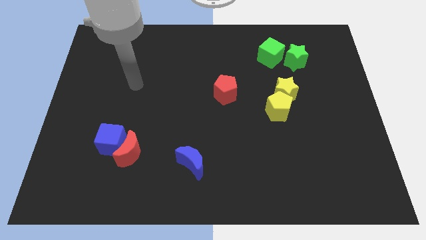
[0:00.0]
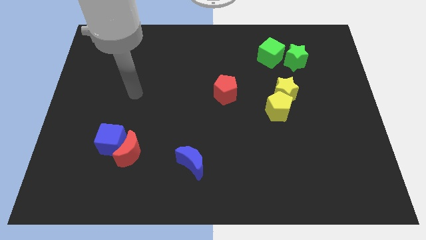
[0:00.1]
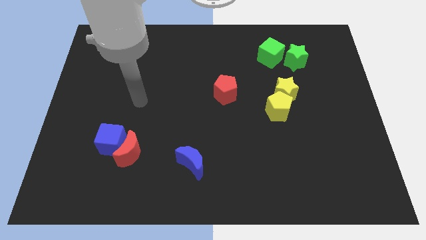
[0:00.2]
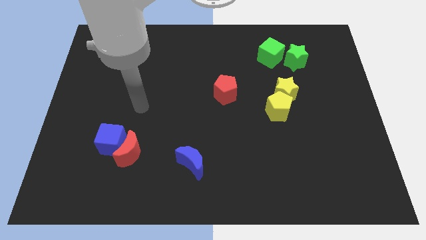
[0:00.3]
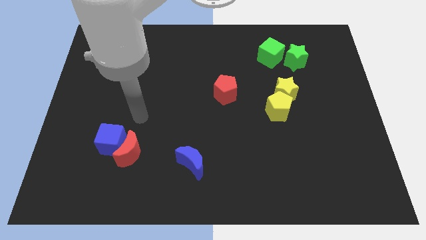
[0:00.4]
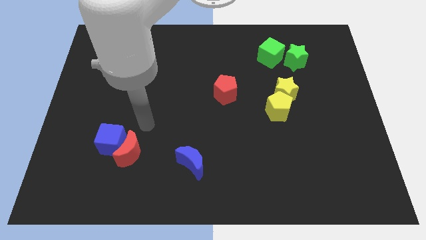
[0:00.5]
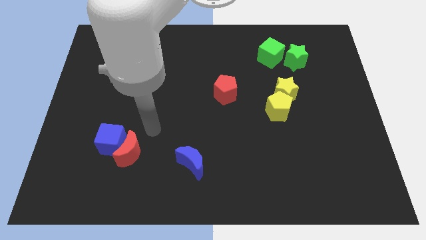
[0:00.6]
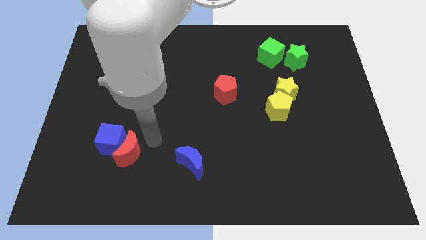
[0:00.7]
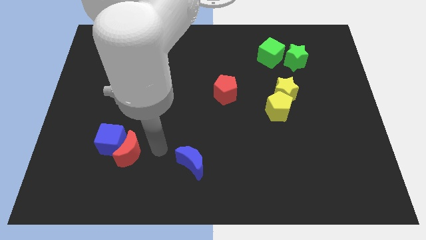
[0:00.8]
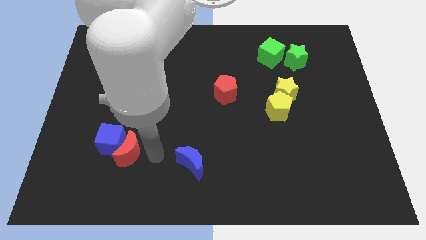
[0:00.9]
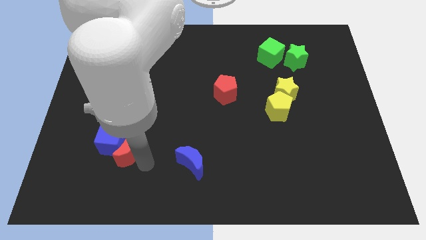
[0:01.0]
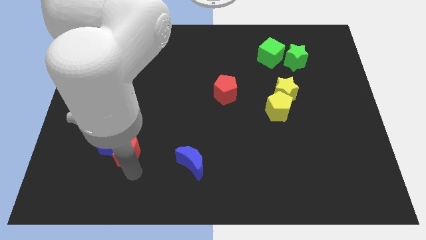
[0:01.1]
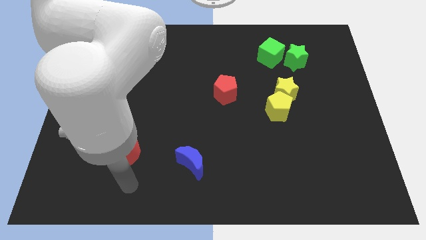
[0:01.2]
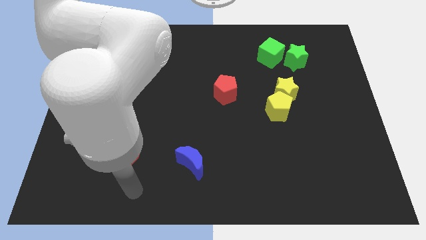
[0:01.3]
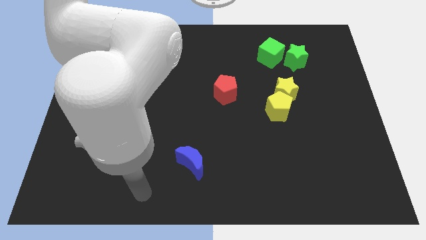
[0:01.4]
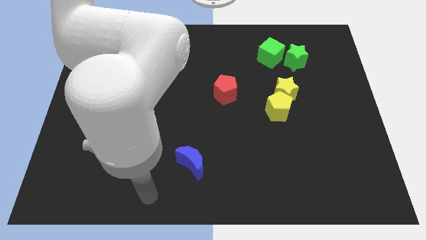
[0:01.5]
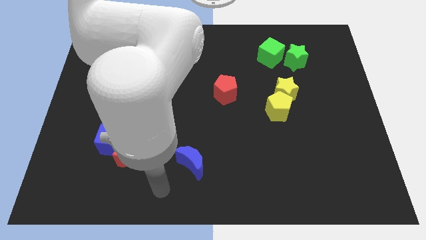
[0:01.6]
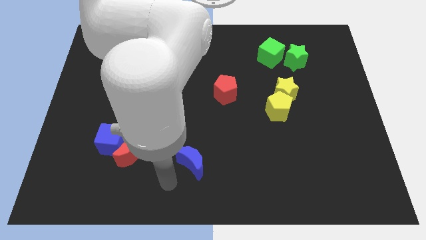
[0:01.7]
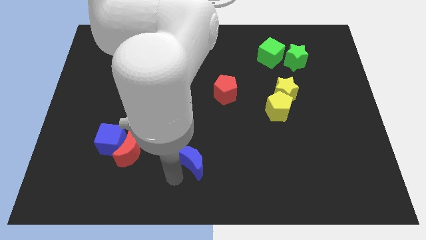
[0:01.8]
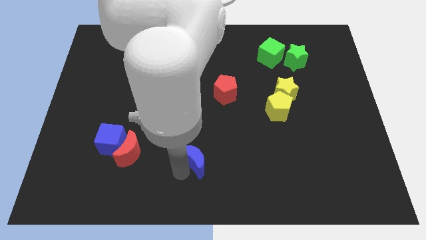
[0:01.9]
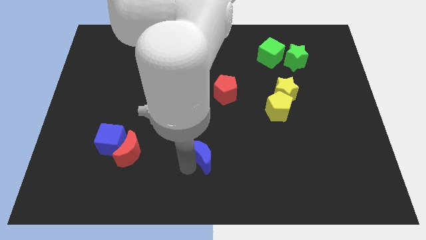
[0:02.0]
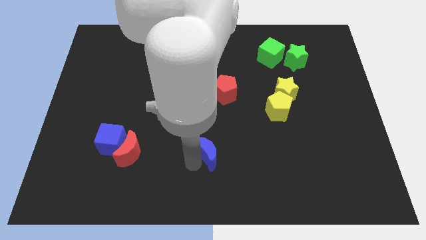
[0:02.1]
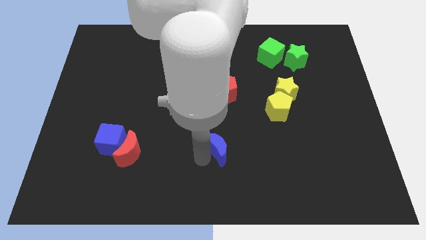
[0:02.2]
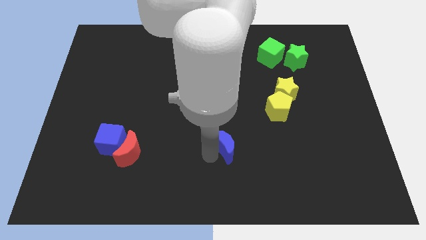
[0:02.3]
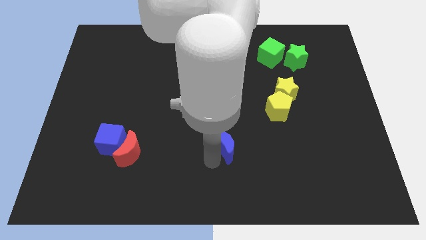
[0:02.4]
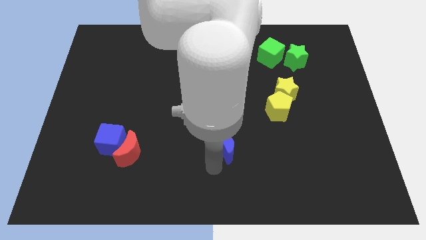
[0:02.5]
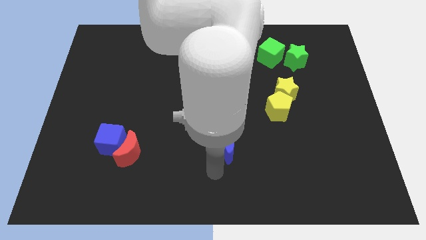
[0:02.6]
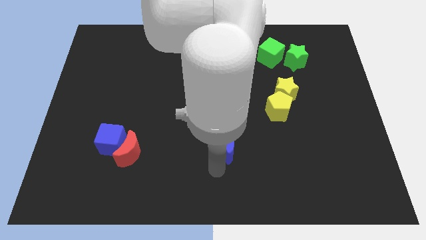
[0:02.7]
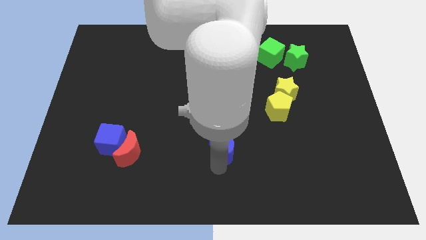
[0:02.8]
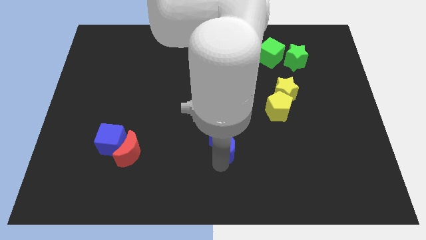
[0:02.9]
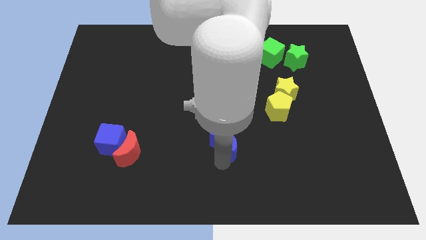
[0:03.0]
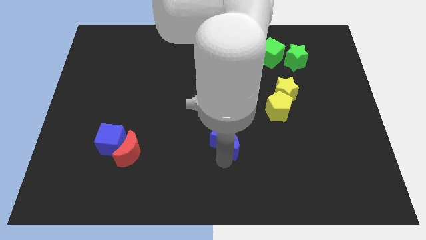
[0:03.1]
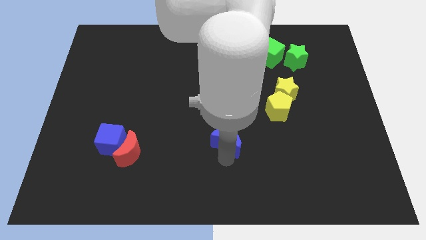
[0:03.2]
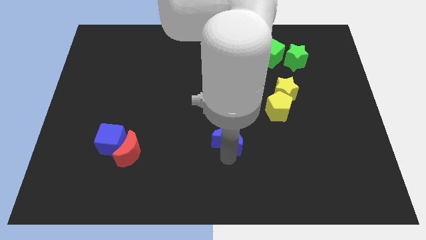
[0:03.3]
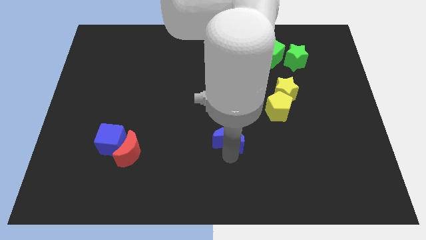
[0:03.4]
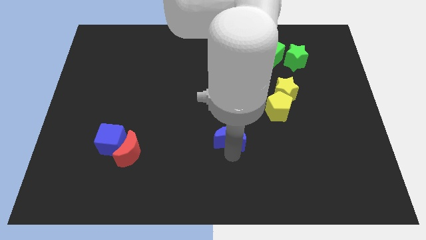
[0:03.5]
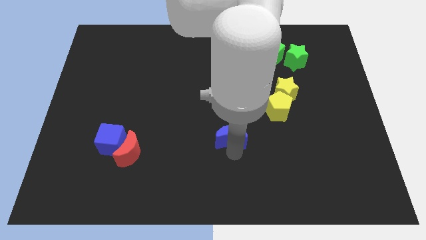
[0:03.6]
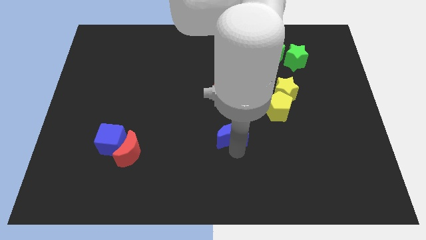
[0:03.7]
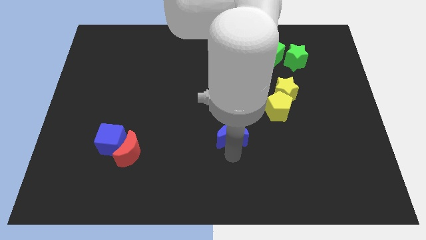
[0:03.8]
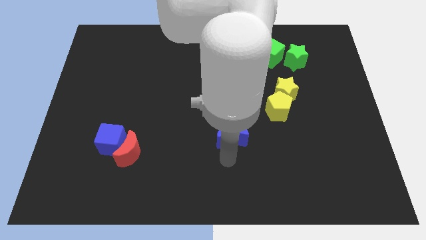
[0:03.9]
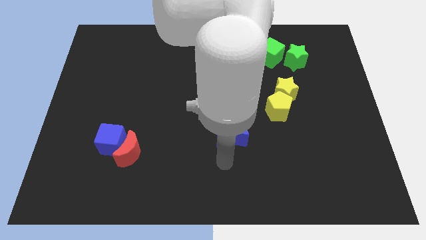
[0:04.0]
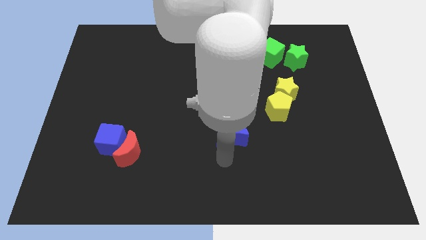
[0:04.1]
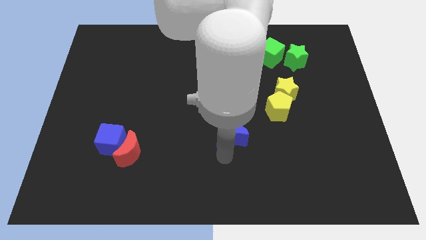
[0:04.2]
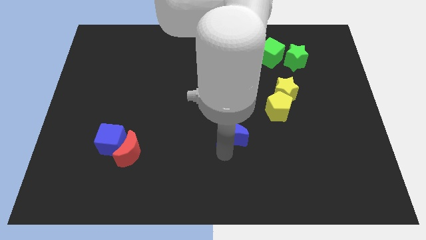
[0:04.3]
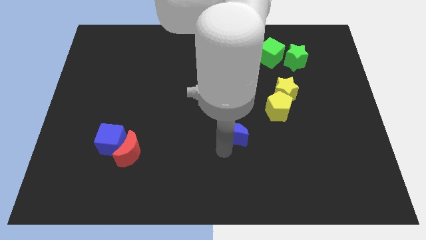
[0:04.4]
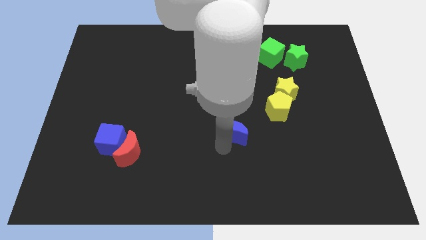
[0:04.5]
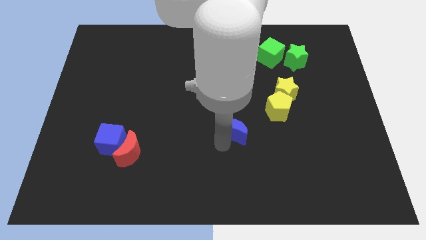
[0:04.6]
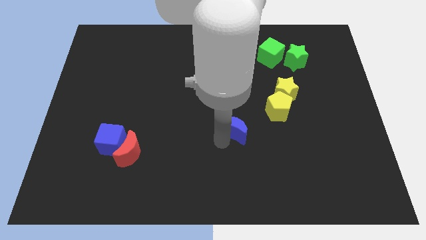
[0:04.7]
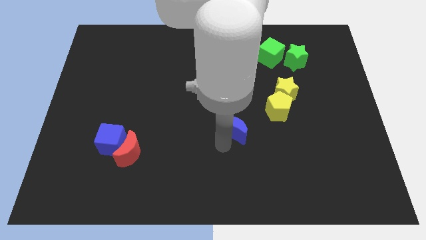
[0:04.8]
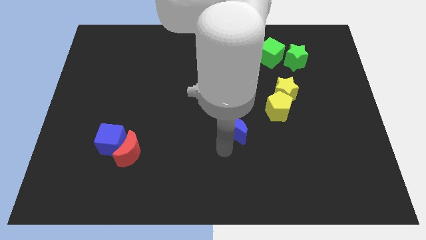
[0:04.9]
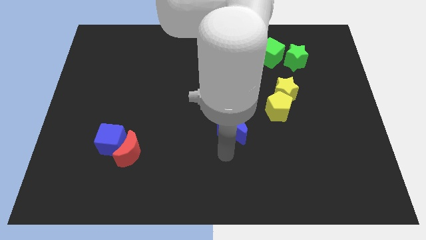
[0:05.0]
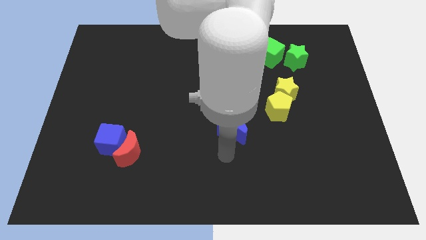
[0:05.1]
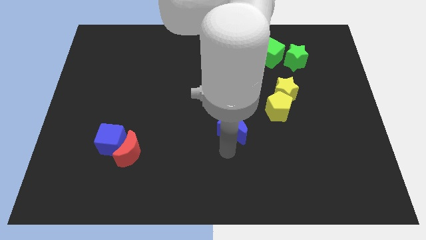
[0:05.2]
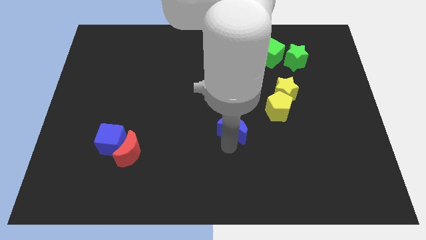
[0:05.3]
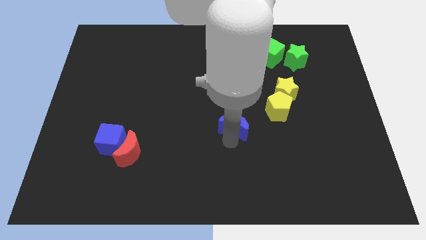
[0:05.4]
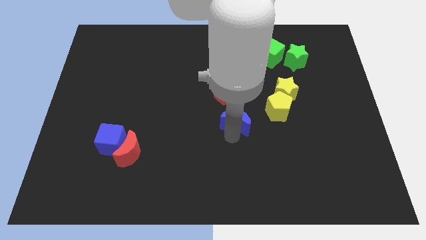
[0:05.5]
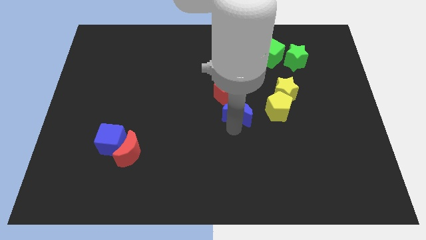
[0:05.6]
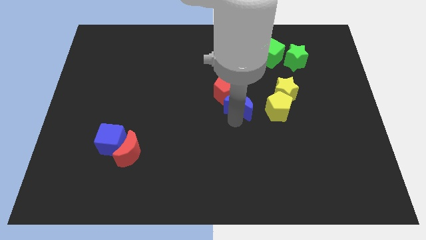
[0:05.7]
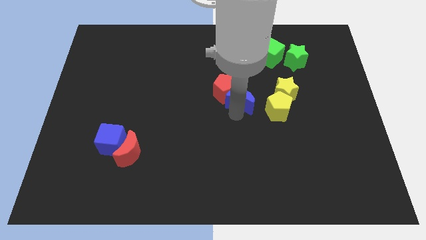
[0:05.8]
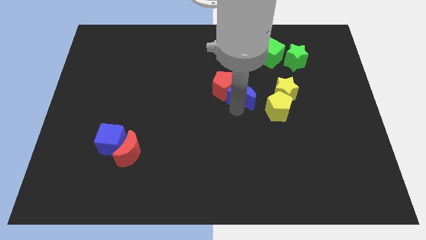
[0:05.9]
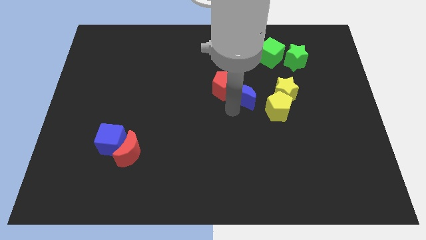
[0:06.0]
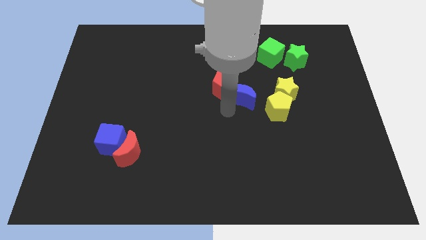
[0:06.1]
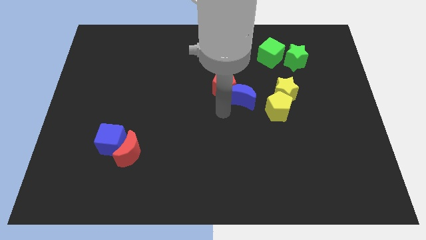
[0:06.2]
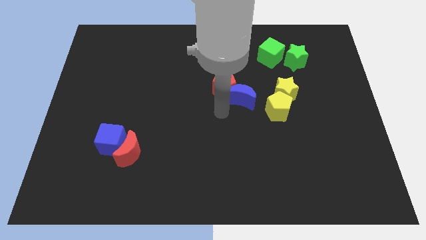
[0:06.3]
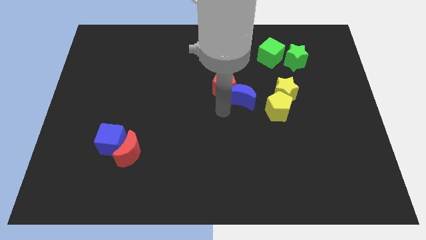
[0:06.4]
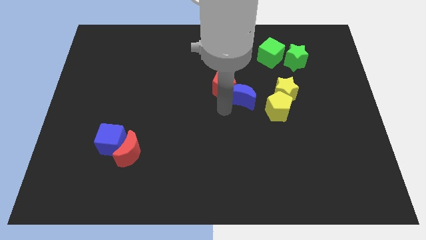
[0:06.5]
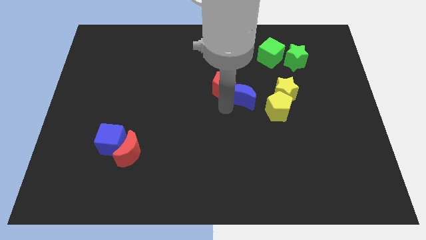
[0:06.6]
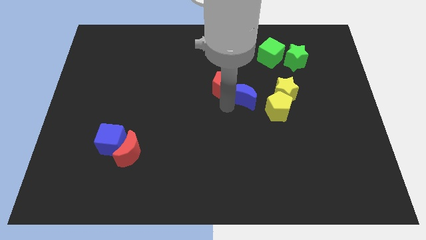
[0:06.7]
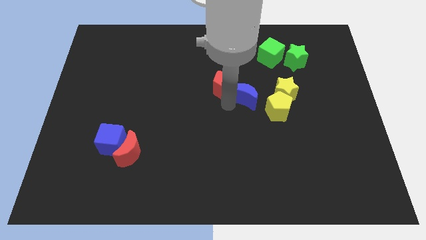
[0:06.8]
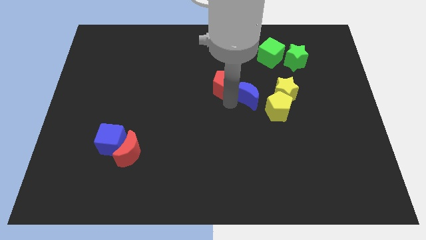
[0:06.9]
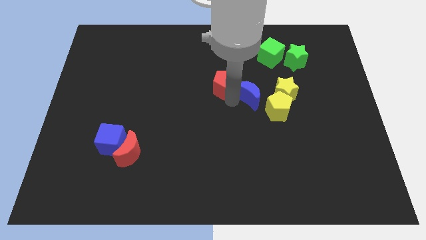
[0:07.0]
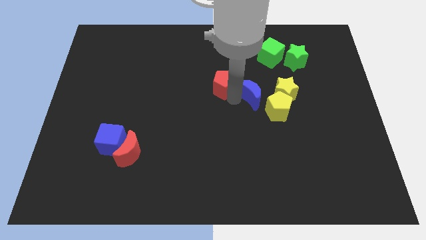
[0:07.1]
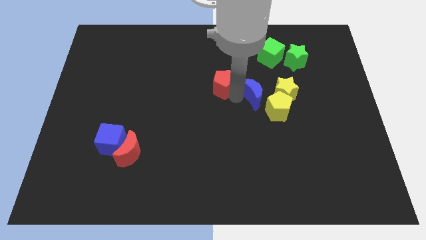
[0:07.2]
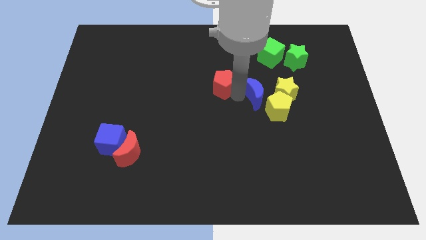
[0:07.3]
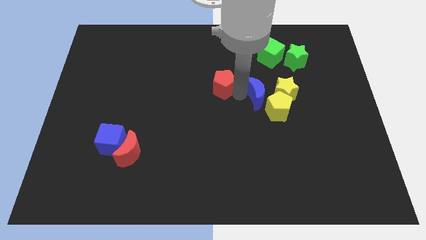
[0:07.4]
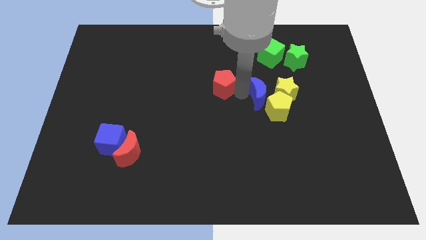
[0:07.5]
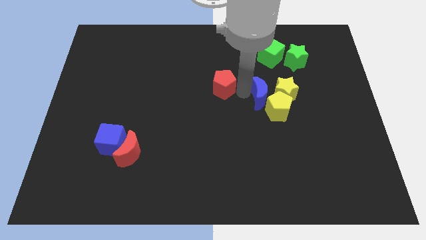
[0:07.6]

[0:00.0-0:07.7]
put the blue moon next to the yellow star

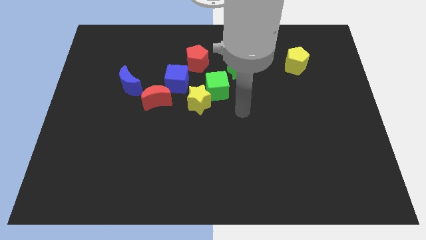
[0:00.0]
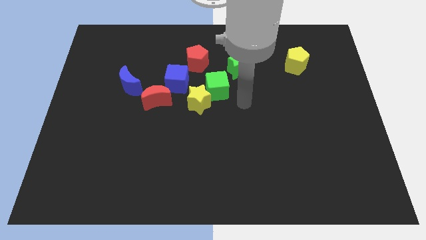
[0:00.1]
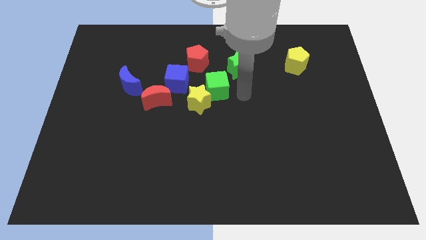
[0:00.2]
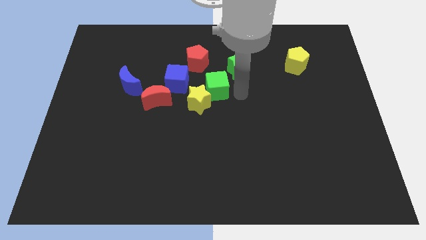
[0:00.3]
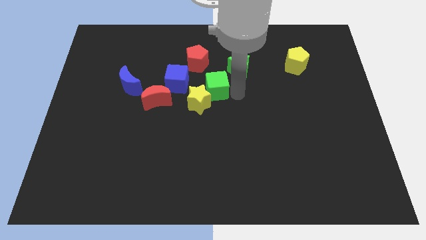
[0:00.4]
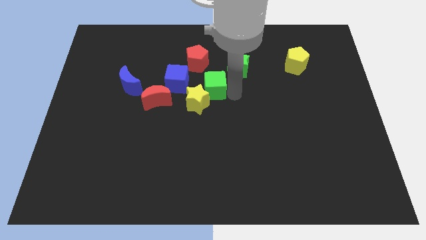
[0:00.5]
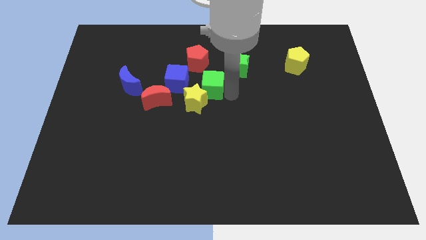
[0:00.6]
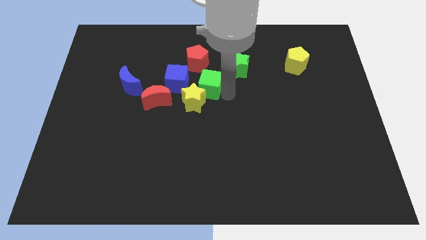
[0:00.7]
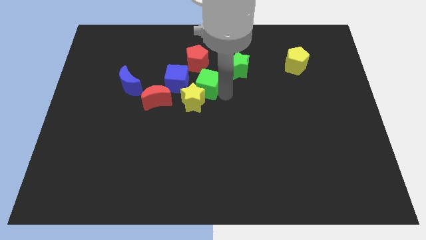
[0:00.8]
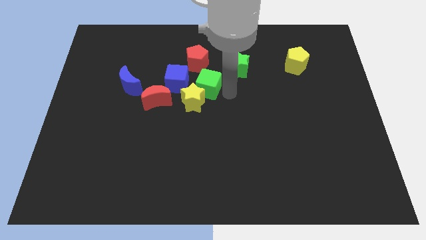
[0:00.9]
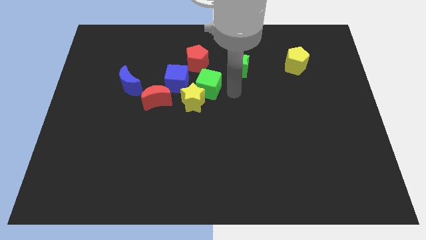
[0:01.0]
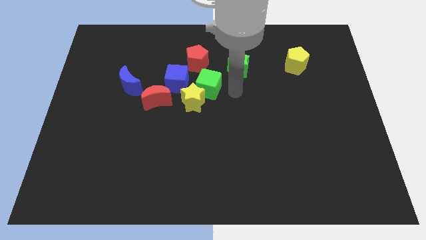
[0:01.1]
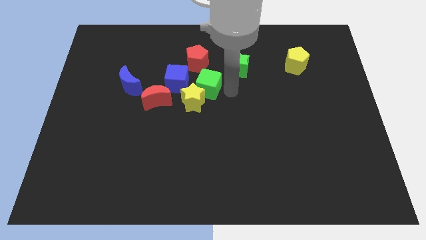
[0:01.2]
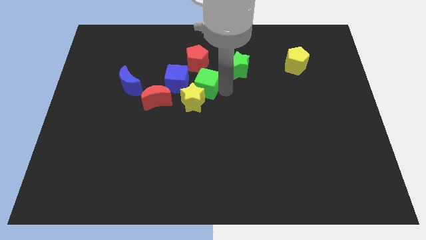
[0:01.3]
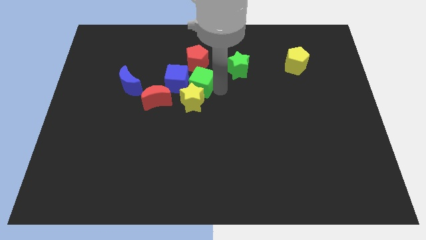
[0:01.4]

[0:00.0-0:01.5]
put the green cube towards the blue cube
